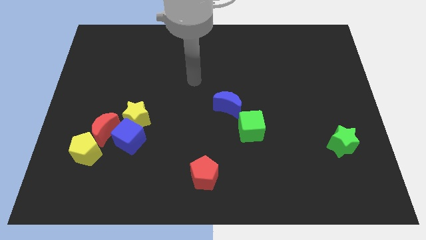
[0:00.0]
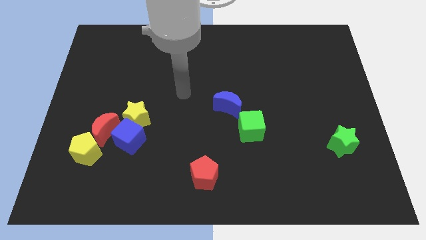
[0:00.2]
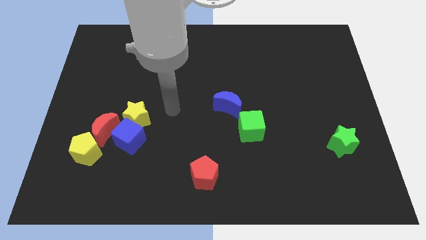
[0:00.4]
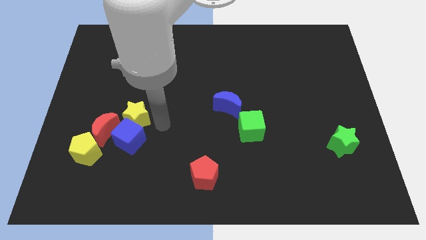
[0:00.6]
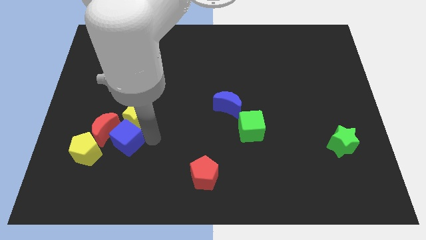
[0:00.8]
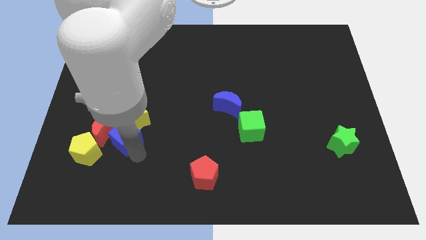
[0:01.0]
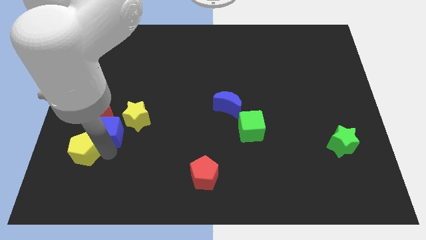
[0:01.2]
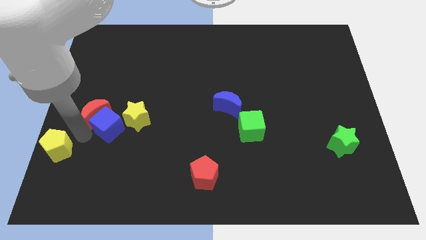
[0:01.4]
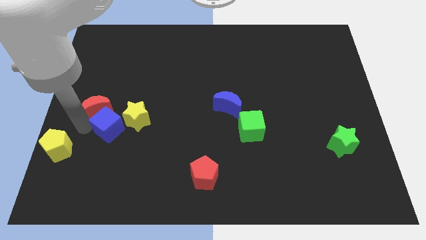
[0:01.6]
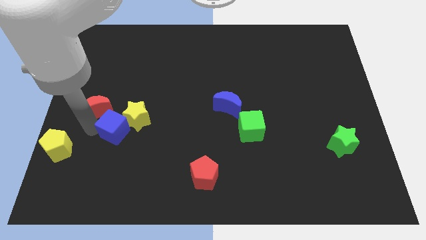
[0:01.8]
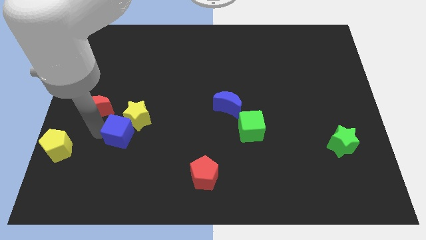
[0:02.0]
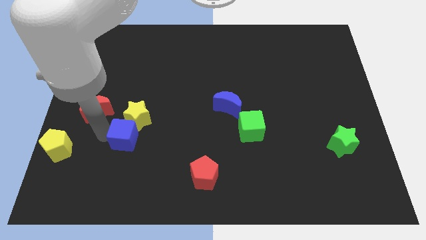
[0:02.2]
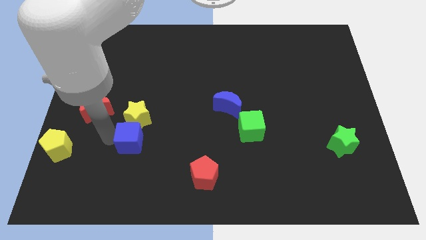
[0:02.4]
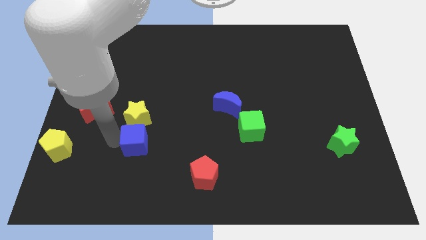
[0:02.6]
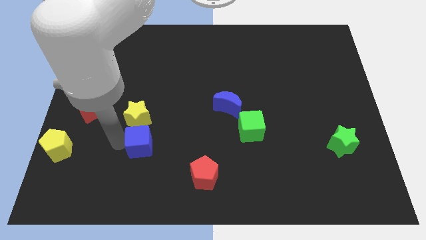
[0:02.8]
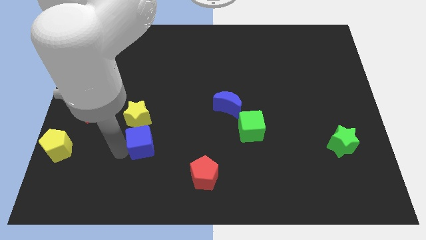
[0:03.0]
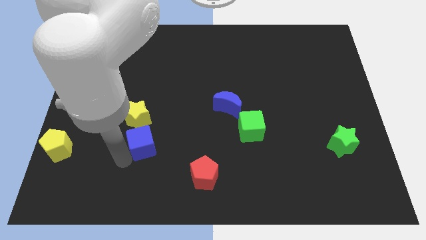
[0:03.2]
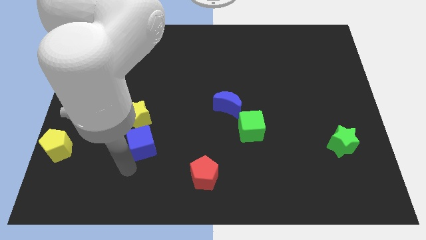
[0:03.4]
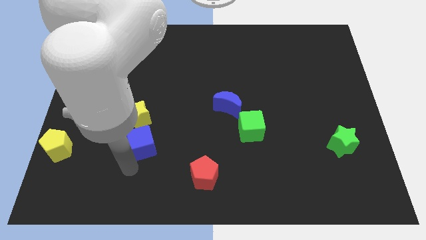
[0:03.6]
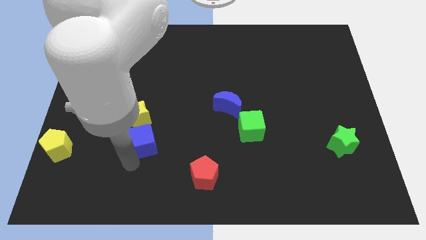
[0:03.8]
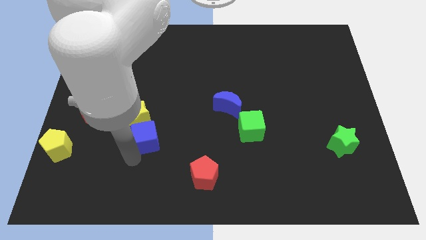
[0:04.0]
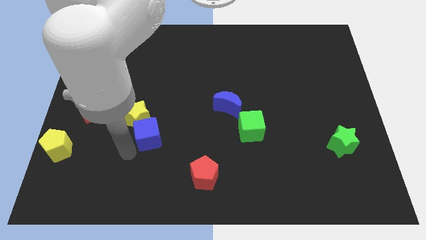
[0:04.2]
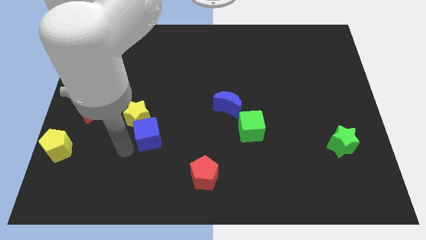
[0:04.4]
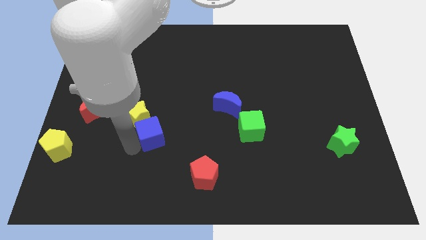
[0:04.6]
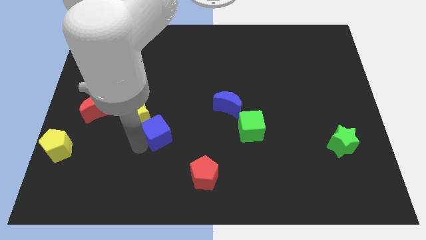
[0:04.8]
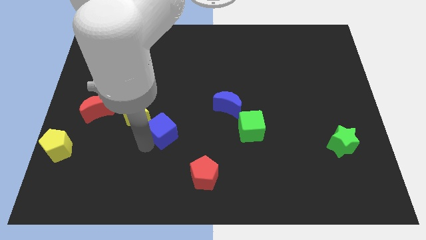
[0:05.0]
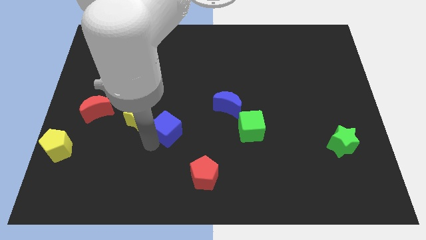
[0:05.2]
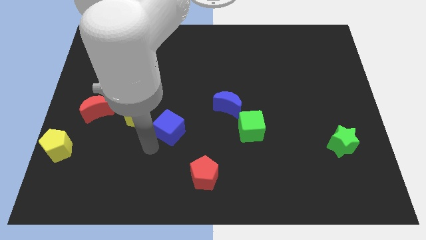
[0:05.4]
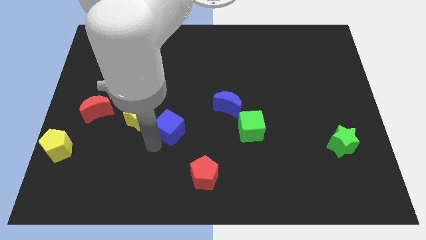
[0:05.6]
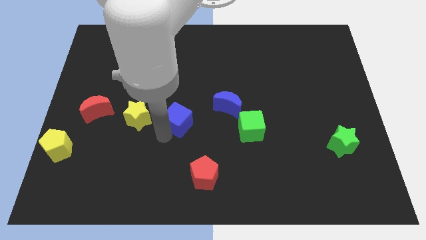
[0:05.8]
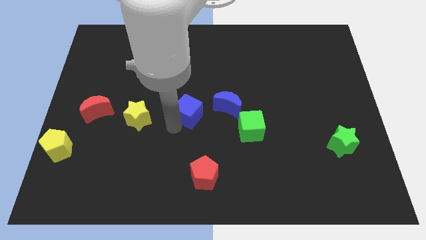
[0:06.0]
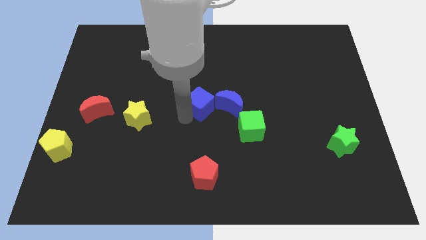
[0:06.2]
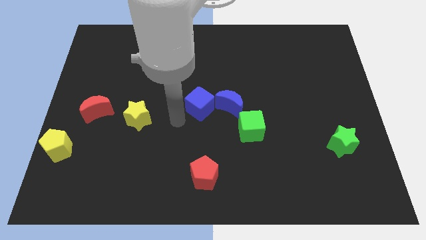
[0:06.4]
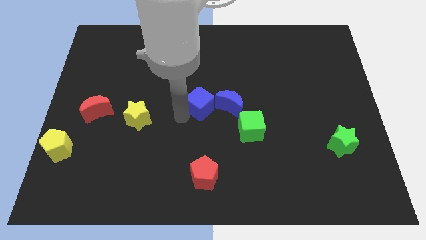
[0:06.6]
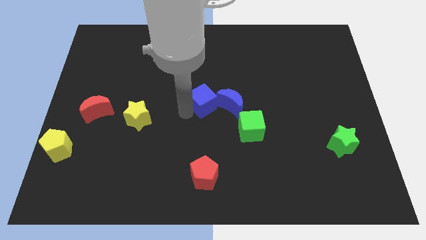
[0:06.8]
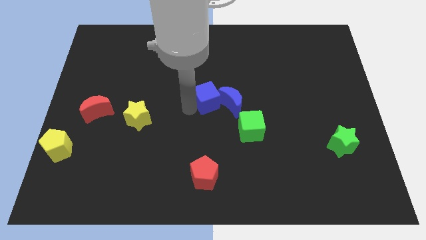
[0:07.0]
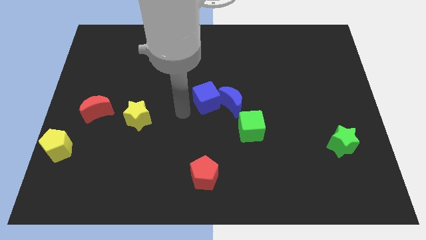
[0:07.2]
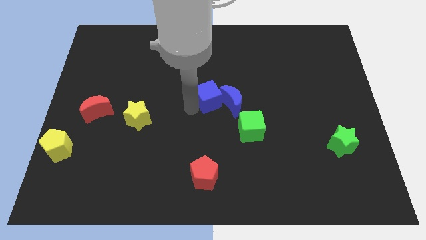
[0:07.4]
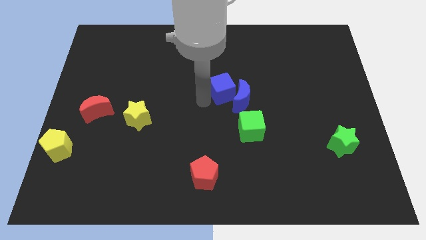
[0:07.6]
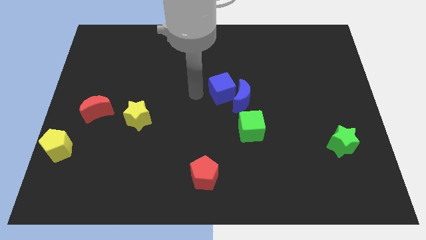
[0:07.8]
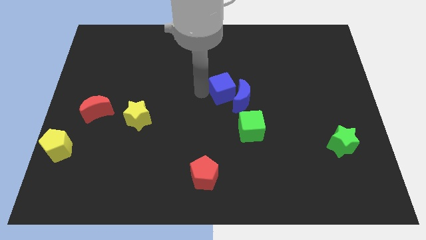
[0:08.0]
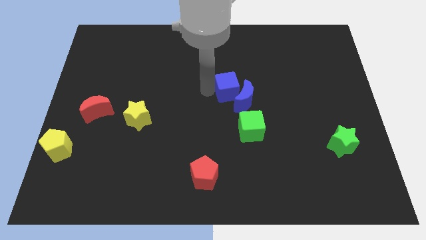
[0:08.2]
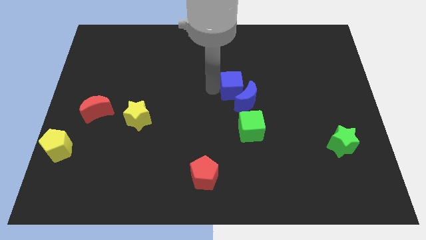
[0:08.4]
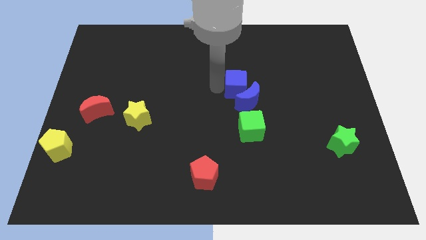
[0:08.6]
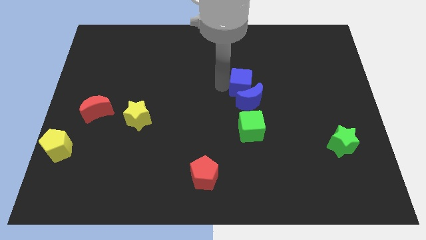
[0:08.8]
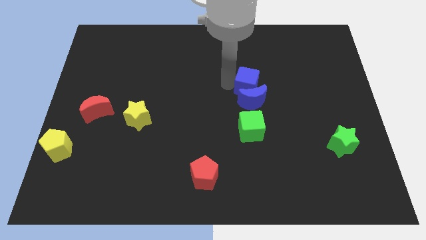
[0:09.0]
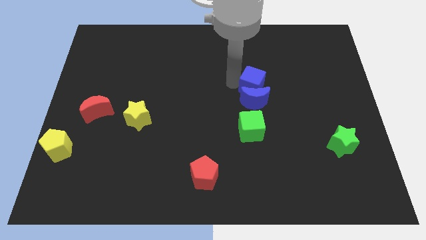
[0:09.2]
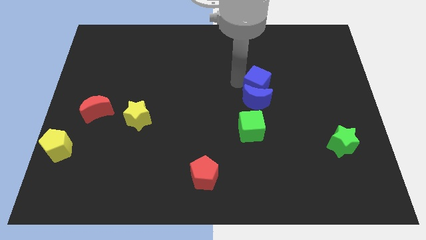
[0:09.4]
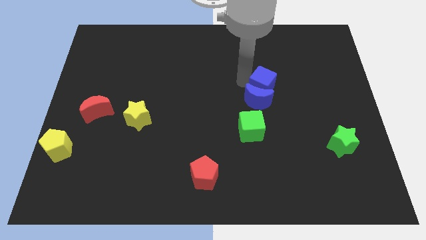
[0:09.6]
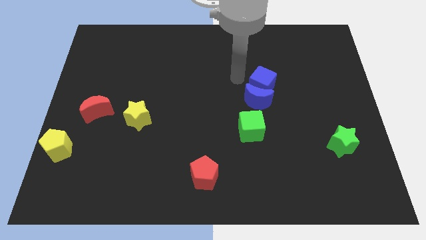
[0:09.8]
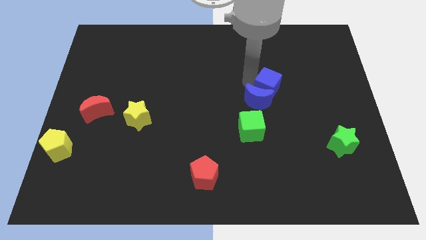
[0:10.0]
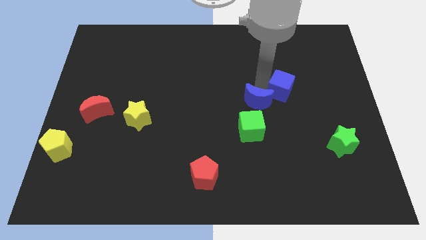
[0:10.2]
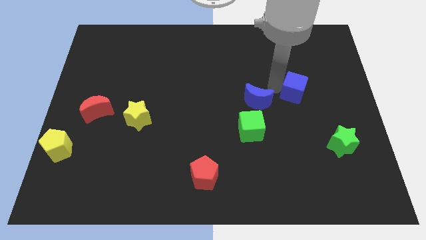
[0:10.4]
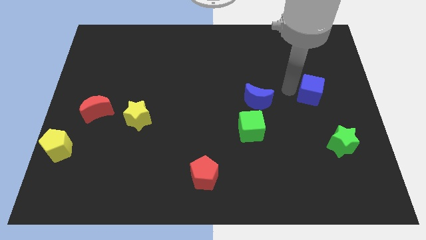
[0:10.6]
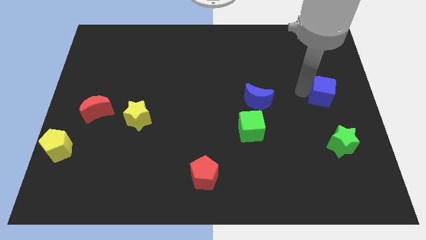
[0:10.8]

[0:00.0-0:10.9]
push the blue cube to the center right

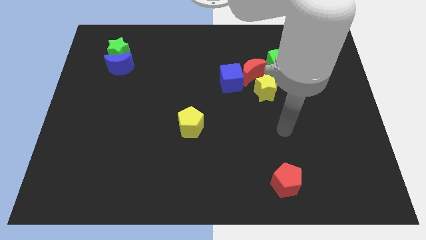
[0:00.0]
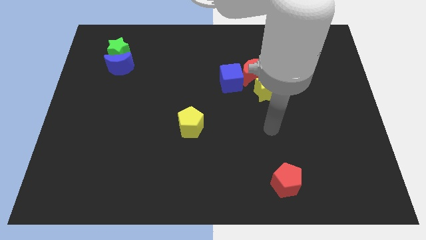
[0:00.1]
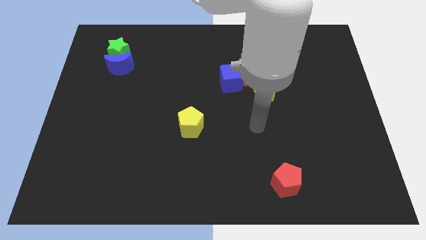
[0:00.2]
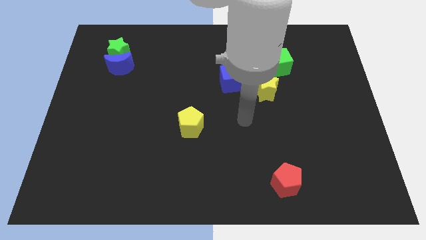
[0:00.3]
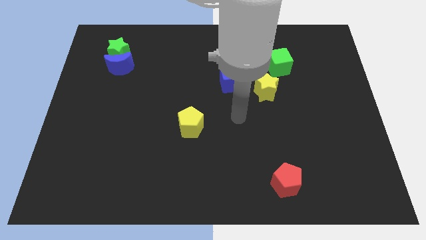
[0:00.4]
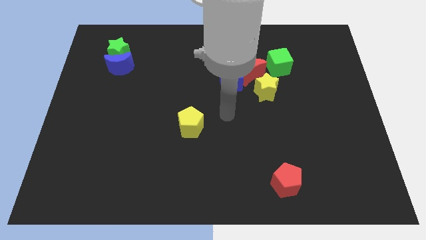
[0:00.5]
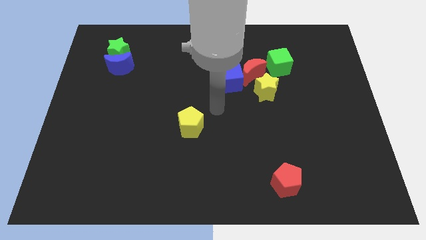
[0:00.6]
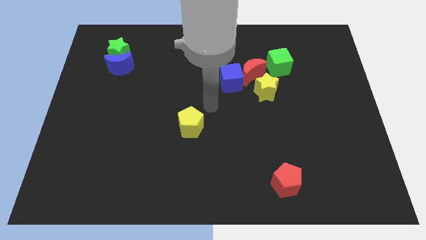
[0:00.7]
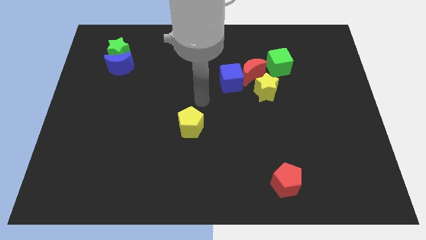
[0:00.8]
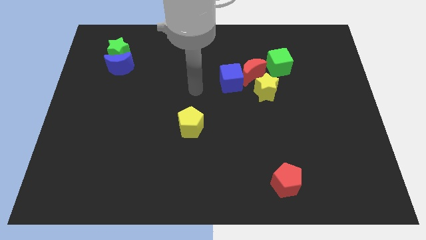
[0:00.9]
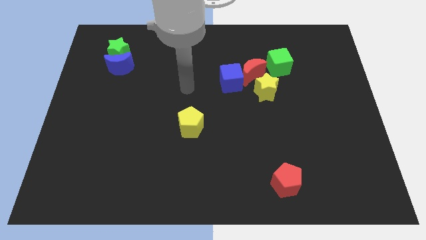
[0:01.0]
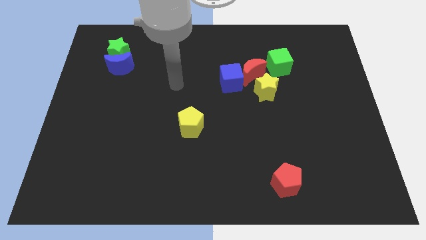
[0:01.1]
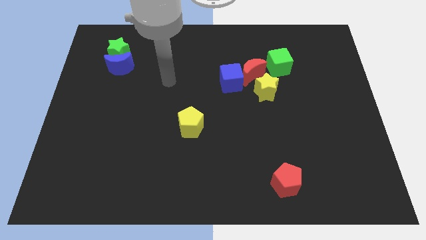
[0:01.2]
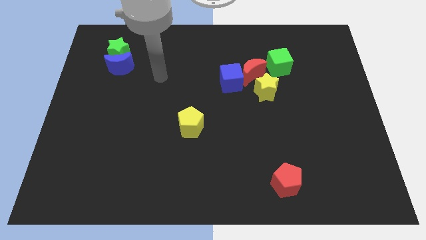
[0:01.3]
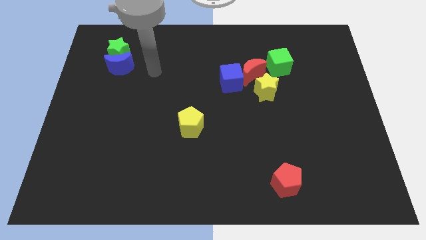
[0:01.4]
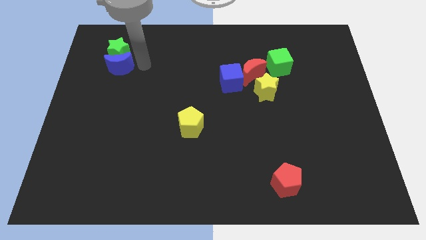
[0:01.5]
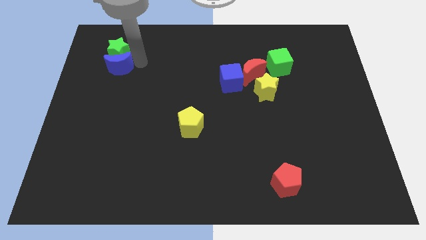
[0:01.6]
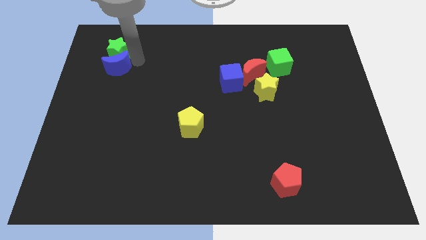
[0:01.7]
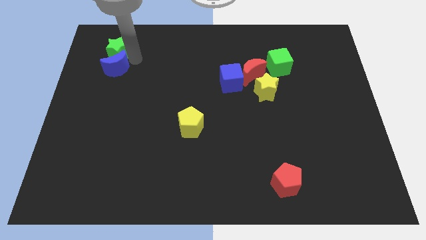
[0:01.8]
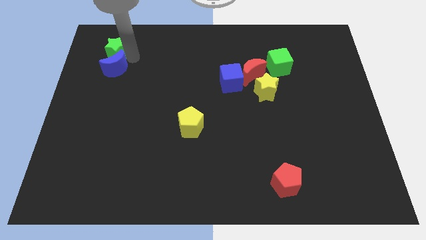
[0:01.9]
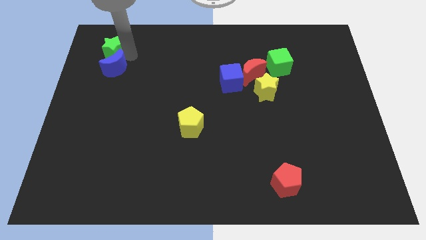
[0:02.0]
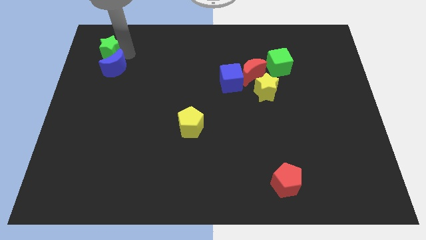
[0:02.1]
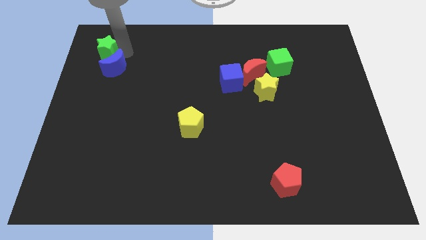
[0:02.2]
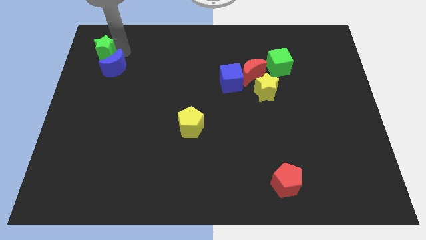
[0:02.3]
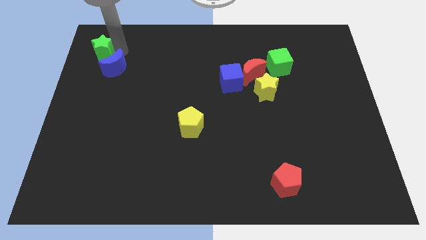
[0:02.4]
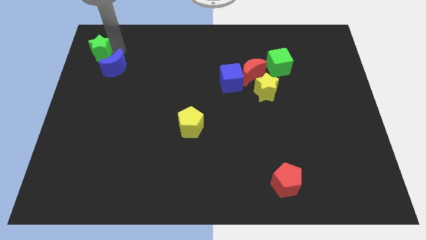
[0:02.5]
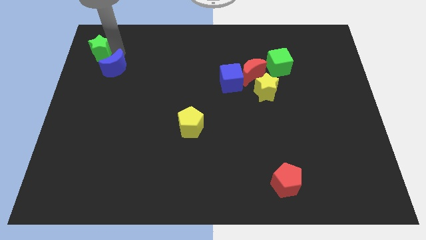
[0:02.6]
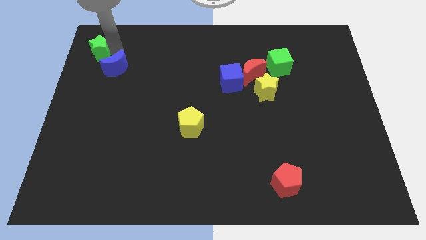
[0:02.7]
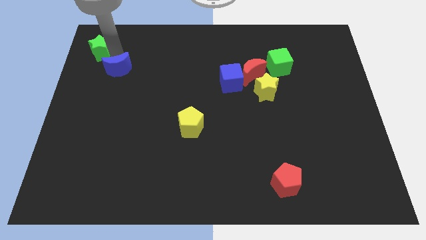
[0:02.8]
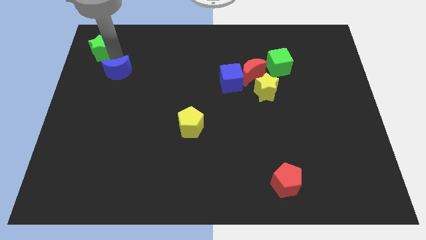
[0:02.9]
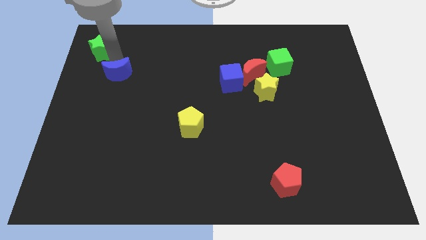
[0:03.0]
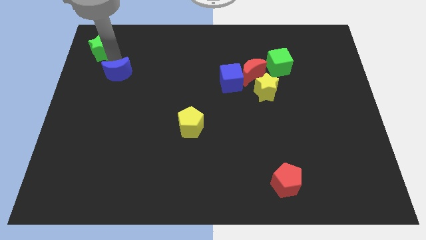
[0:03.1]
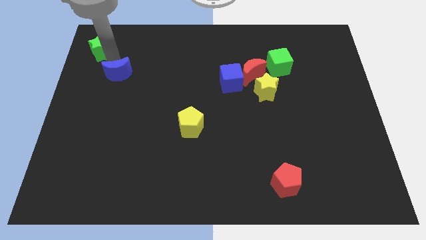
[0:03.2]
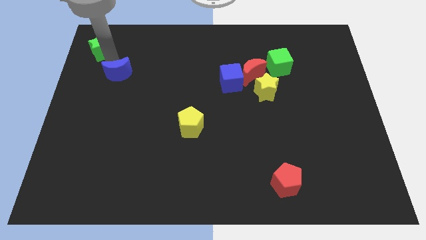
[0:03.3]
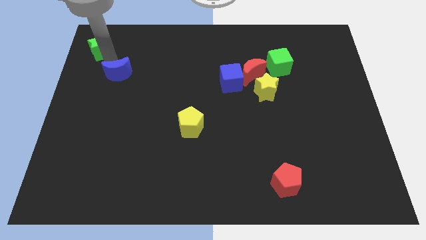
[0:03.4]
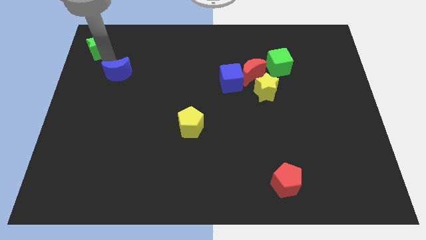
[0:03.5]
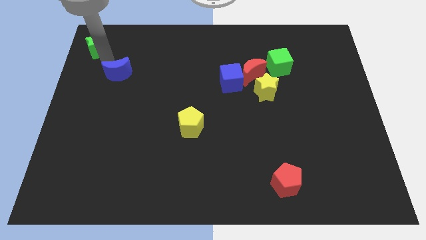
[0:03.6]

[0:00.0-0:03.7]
put the green star to the upper left corner
